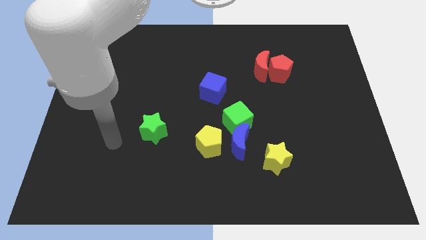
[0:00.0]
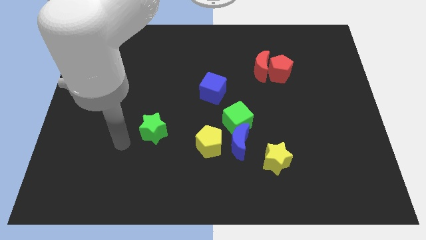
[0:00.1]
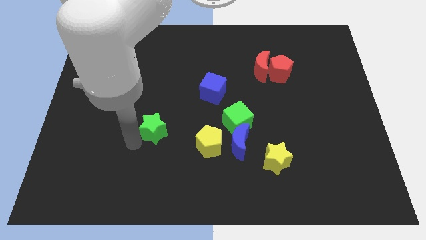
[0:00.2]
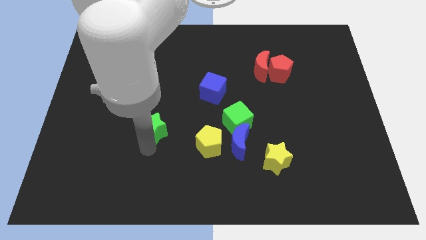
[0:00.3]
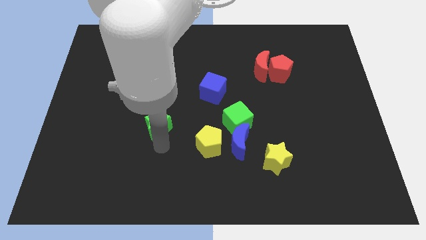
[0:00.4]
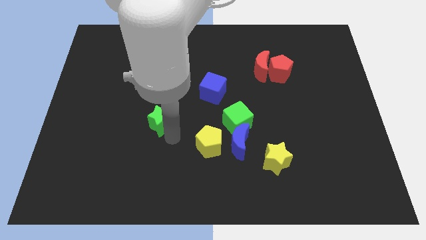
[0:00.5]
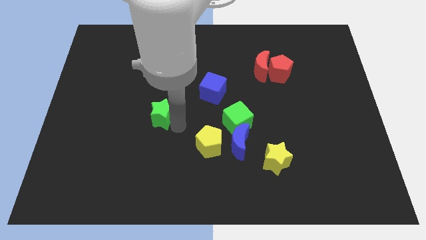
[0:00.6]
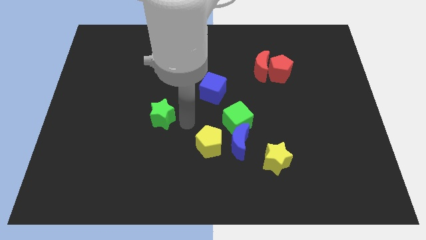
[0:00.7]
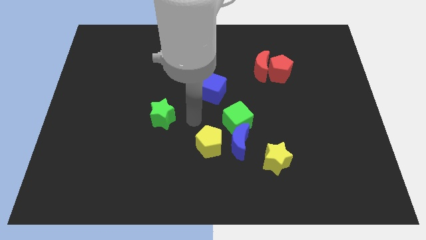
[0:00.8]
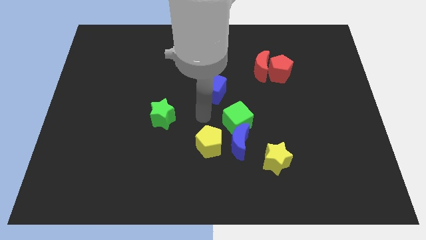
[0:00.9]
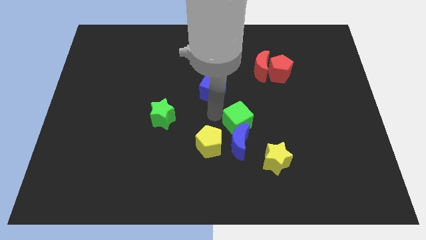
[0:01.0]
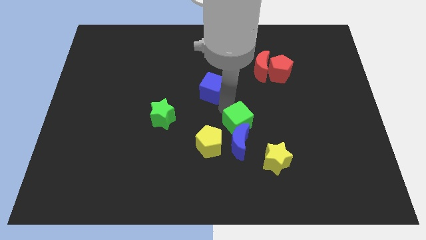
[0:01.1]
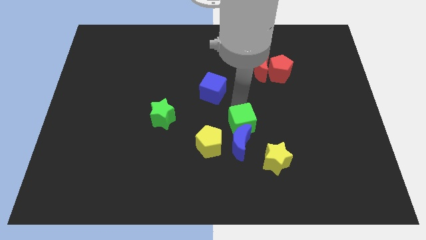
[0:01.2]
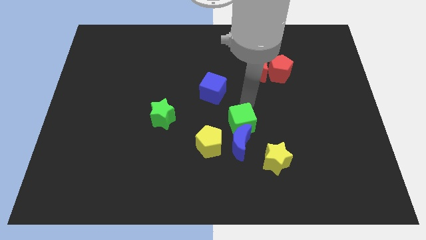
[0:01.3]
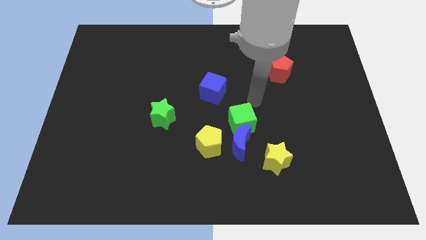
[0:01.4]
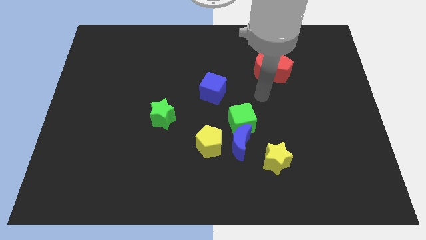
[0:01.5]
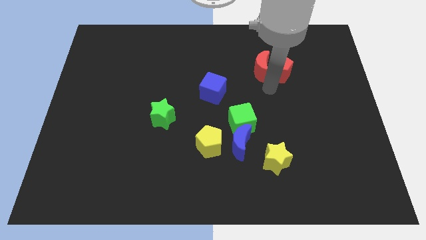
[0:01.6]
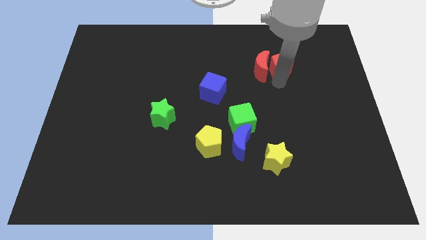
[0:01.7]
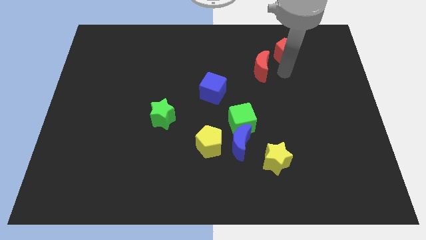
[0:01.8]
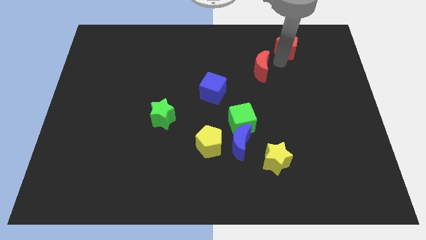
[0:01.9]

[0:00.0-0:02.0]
move the red moon away from the red pentagon

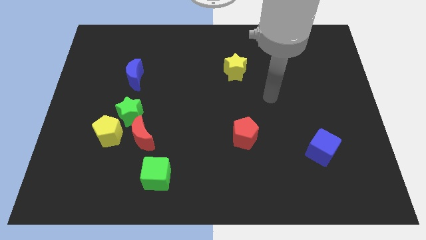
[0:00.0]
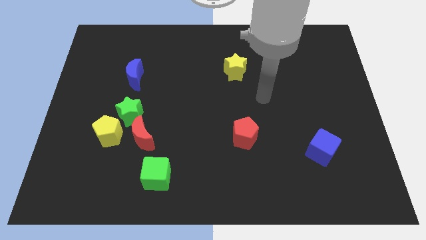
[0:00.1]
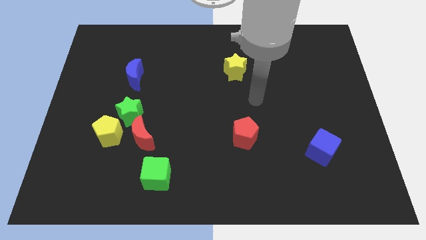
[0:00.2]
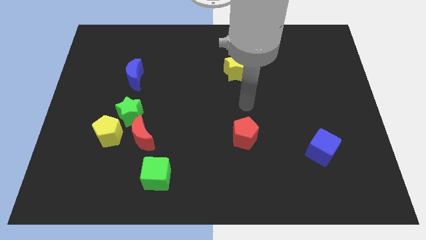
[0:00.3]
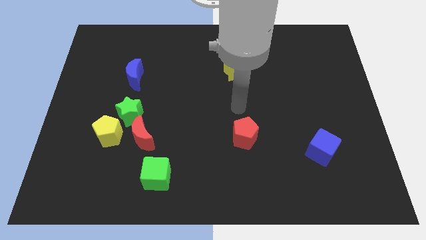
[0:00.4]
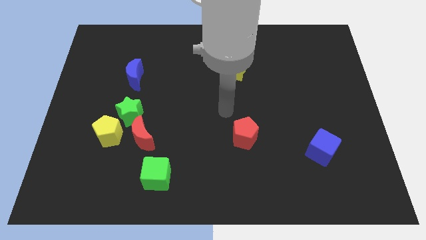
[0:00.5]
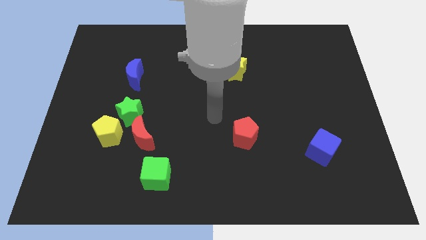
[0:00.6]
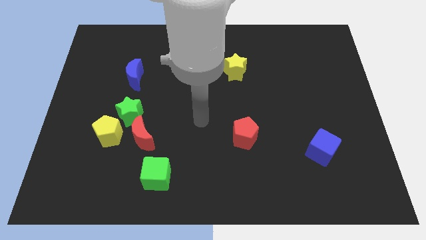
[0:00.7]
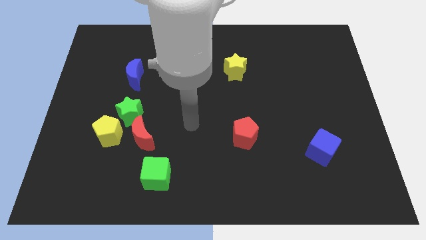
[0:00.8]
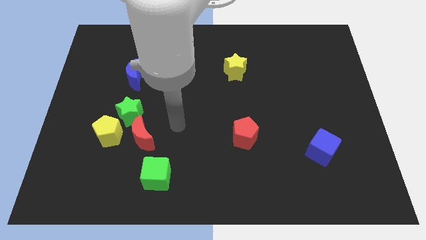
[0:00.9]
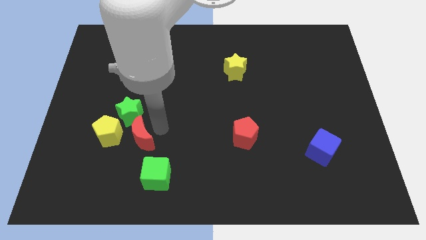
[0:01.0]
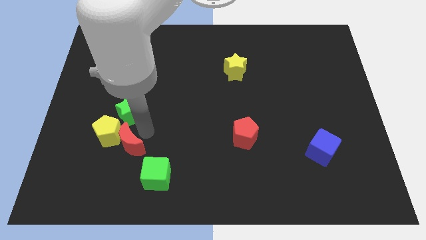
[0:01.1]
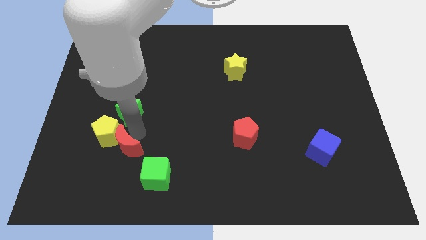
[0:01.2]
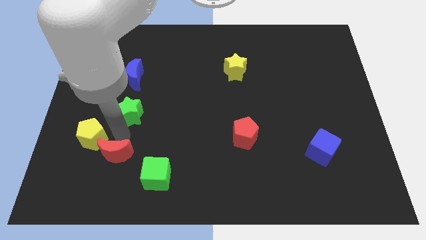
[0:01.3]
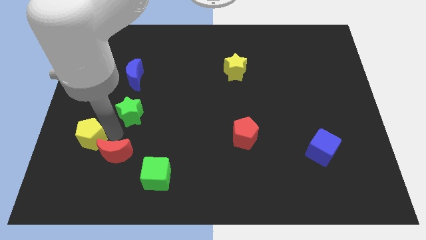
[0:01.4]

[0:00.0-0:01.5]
separate the green star from the yellow pentagon and red moon

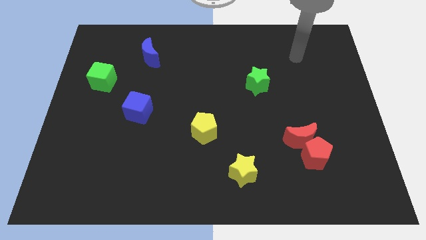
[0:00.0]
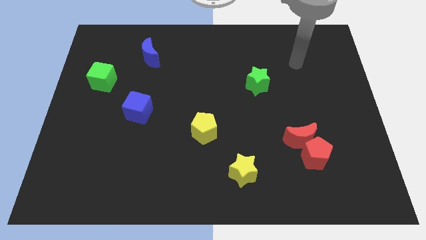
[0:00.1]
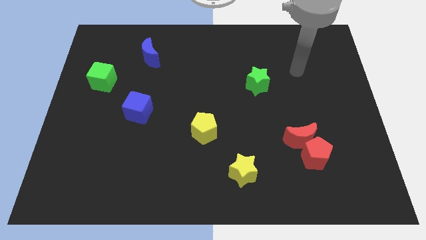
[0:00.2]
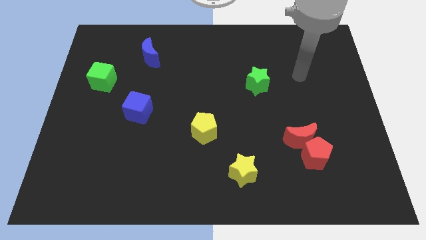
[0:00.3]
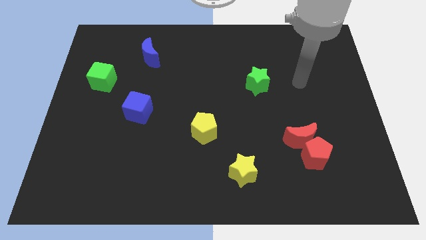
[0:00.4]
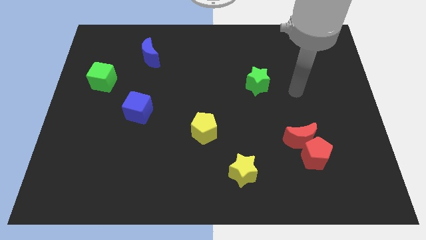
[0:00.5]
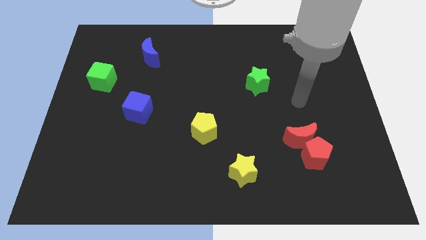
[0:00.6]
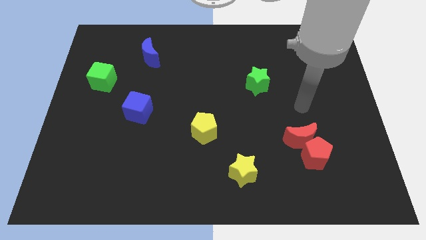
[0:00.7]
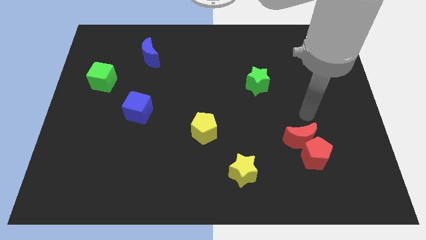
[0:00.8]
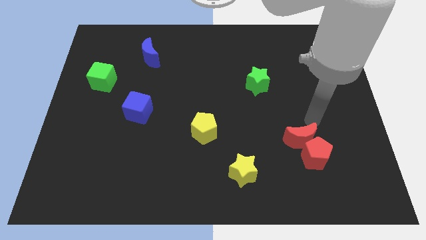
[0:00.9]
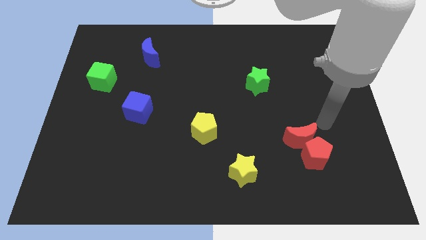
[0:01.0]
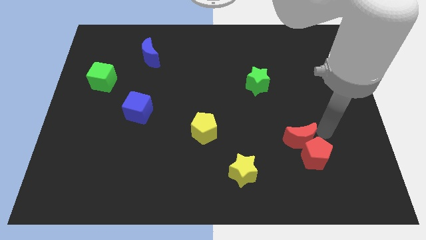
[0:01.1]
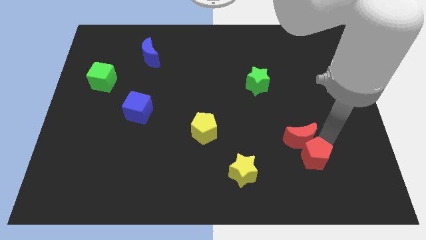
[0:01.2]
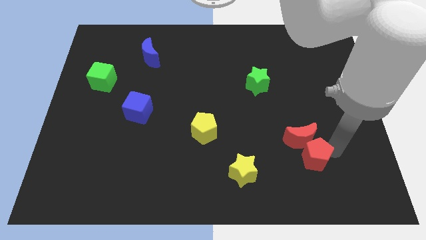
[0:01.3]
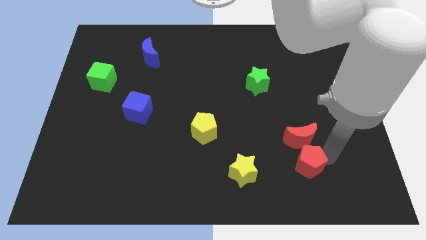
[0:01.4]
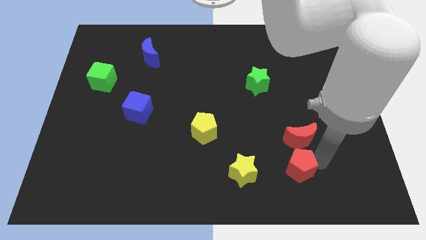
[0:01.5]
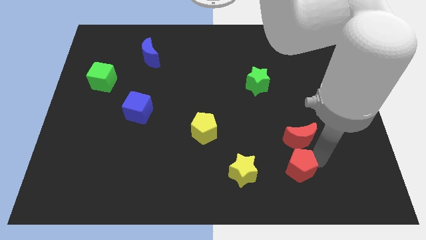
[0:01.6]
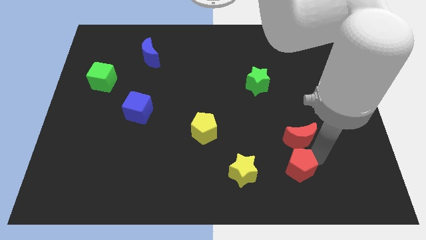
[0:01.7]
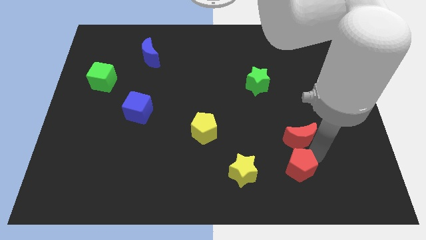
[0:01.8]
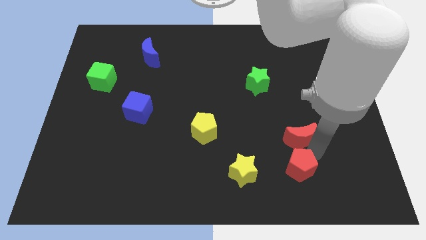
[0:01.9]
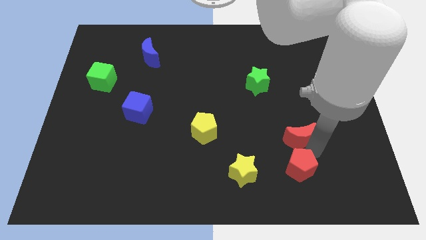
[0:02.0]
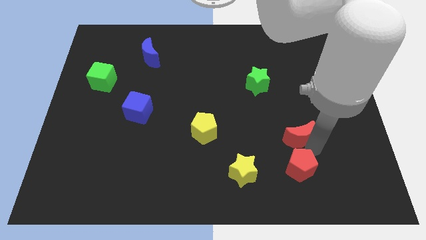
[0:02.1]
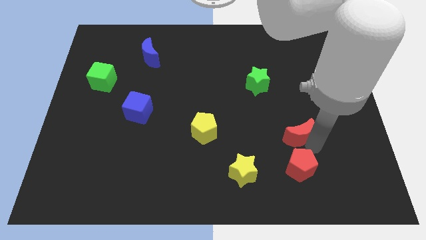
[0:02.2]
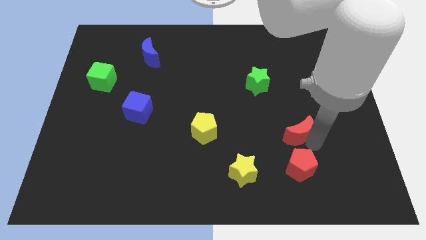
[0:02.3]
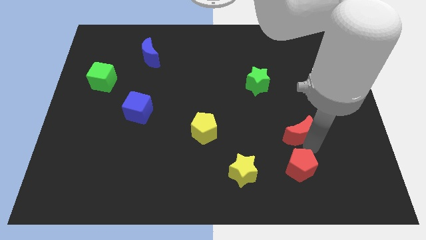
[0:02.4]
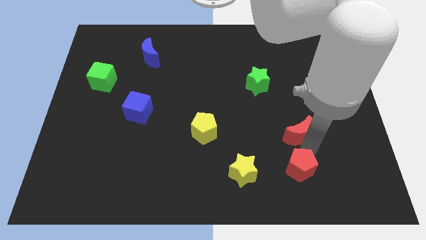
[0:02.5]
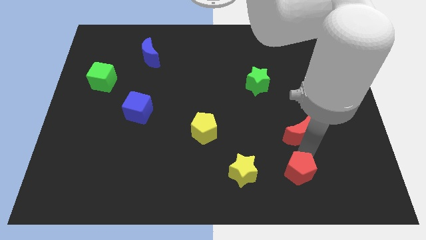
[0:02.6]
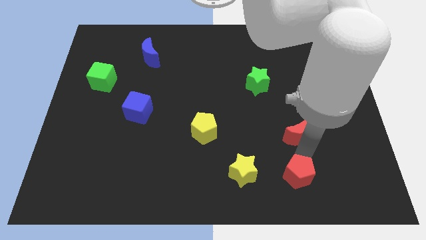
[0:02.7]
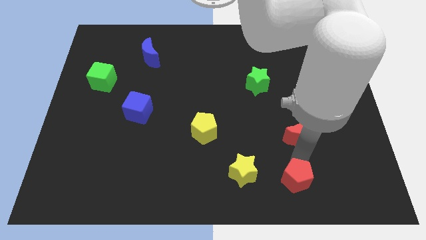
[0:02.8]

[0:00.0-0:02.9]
separate the red moon from the red pentagon

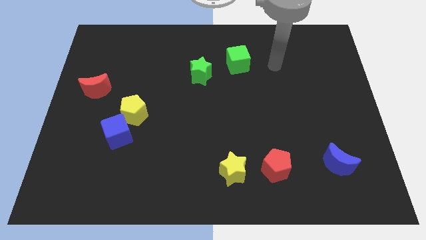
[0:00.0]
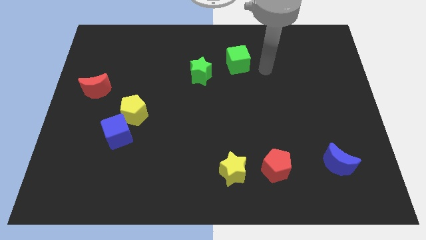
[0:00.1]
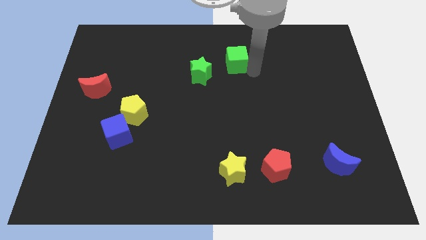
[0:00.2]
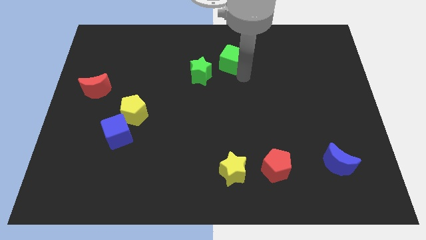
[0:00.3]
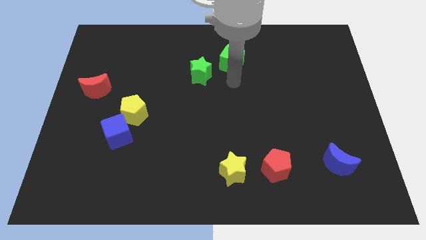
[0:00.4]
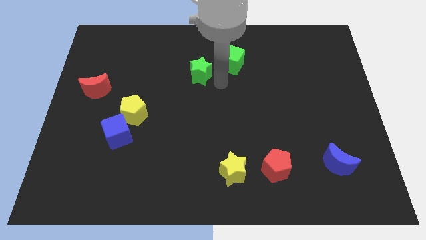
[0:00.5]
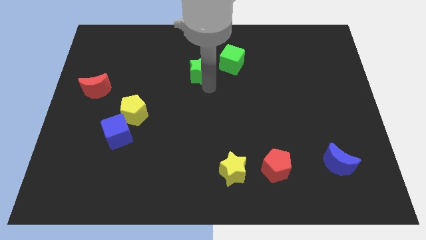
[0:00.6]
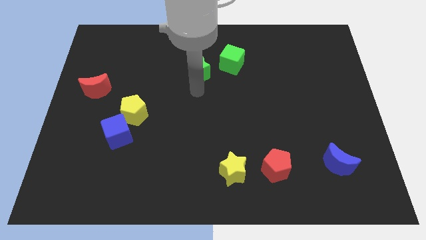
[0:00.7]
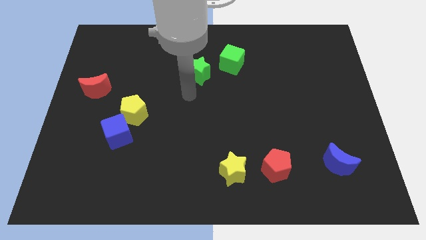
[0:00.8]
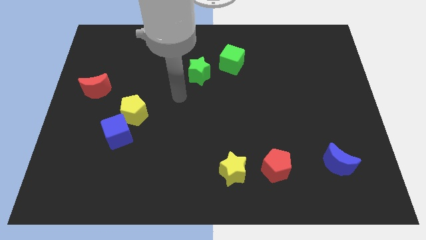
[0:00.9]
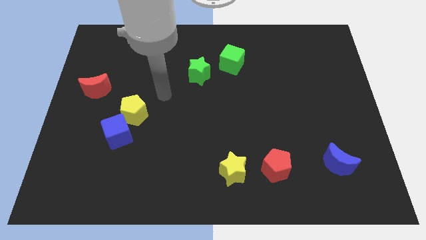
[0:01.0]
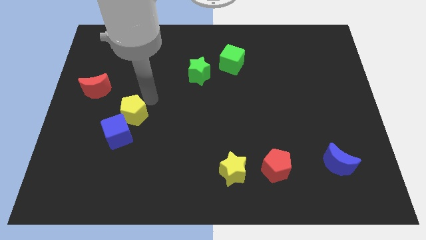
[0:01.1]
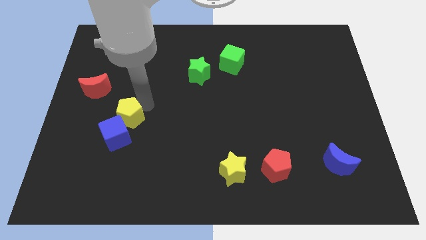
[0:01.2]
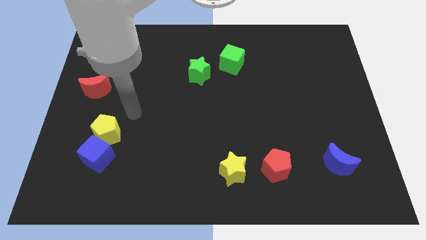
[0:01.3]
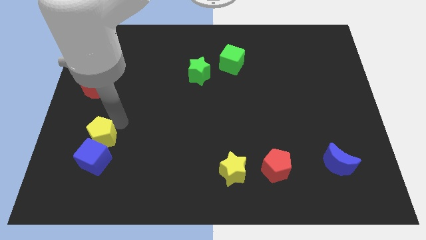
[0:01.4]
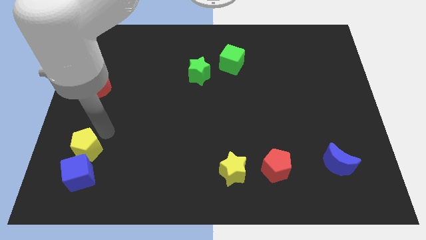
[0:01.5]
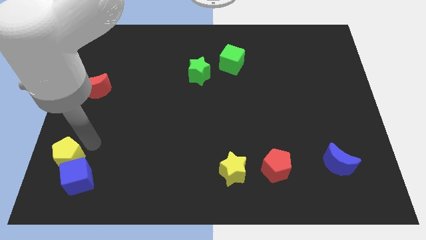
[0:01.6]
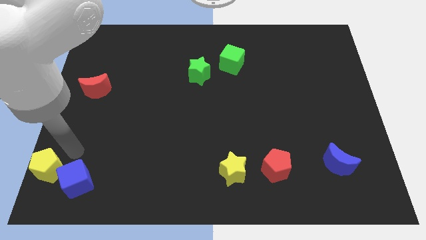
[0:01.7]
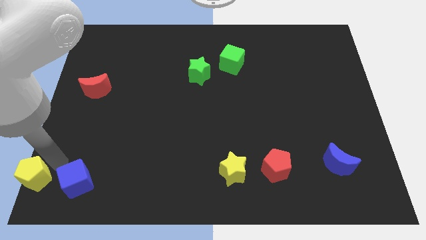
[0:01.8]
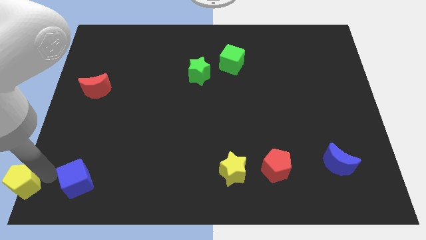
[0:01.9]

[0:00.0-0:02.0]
separate the blue cube from the yellow pentagon

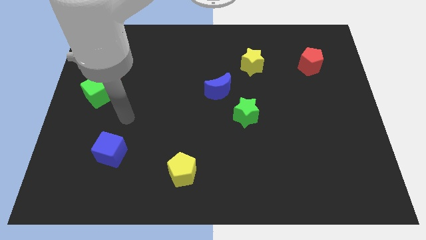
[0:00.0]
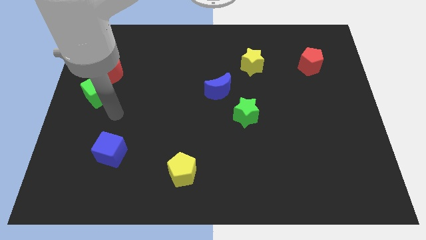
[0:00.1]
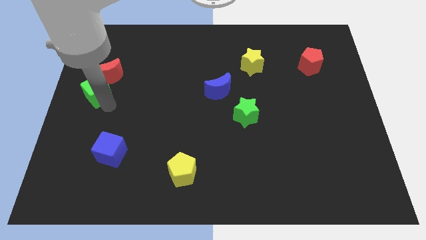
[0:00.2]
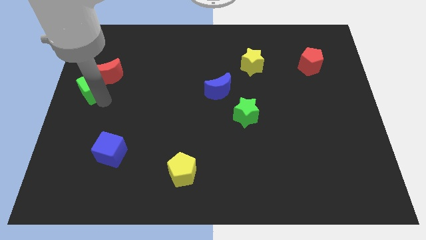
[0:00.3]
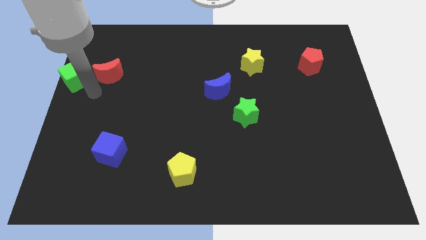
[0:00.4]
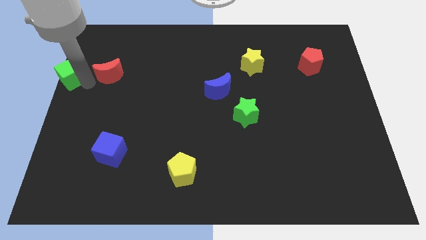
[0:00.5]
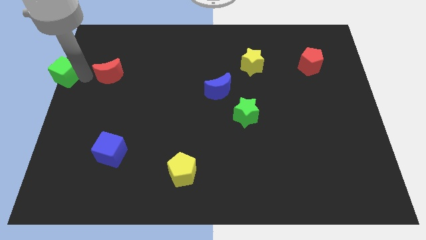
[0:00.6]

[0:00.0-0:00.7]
move the red moon away from the green cube
